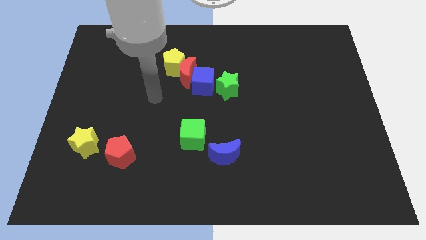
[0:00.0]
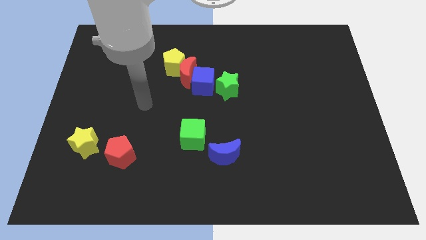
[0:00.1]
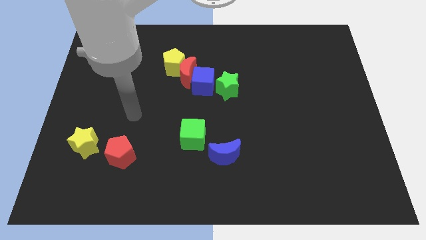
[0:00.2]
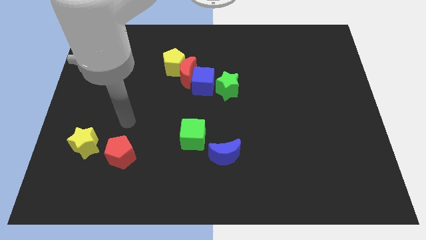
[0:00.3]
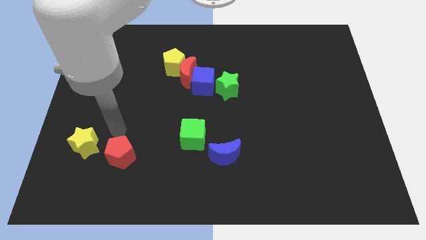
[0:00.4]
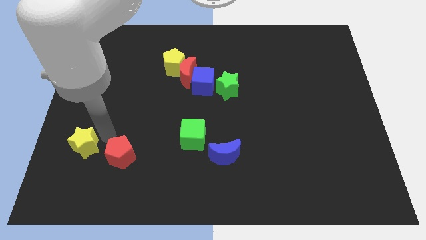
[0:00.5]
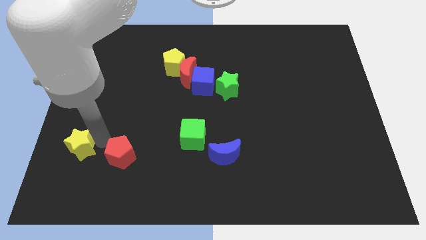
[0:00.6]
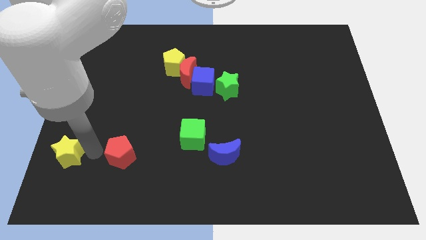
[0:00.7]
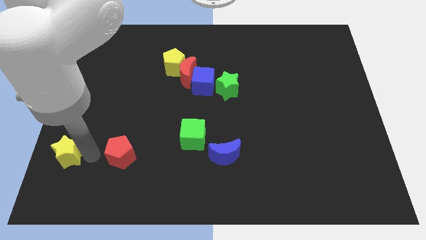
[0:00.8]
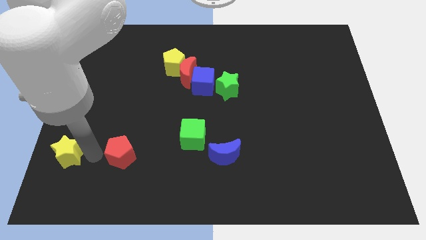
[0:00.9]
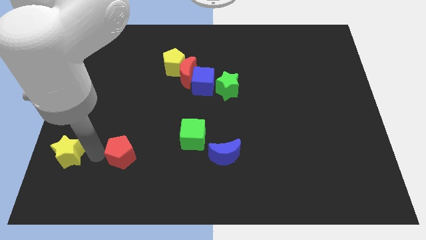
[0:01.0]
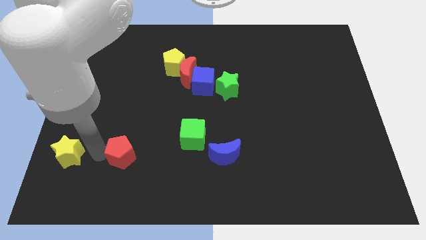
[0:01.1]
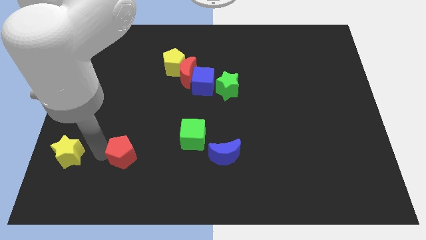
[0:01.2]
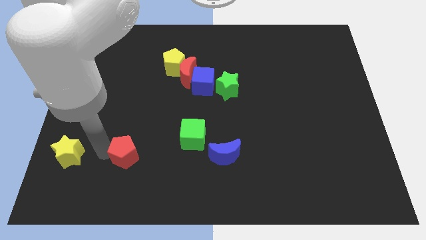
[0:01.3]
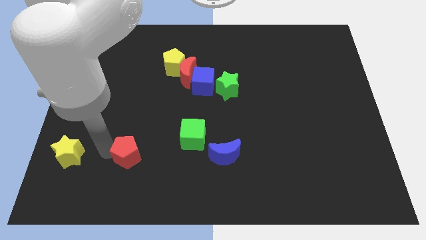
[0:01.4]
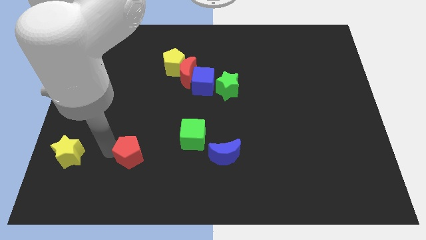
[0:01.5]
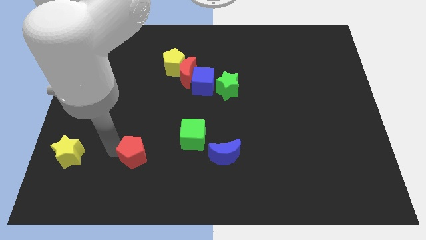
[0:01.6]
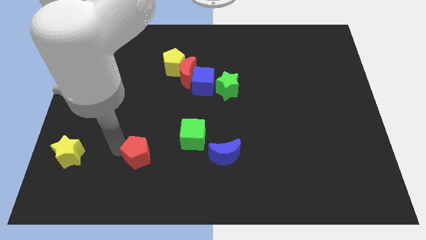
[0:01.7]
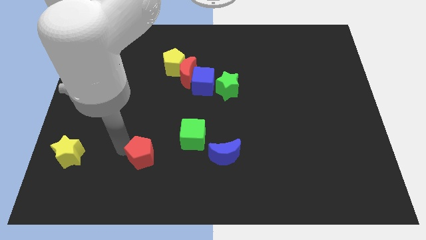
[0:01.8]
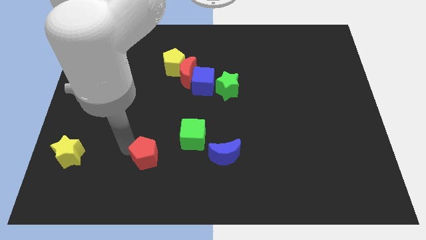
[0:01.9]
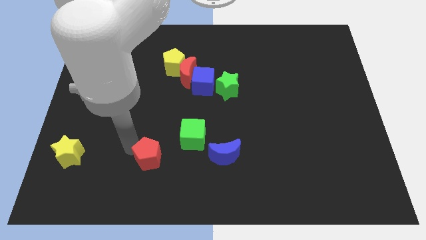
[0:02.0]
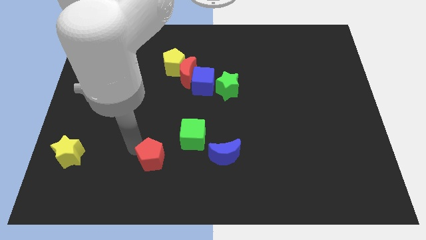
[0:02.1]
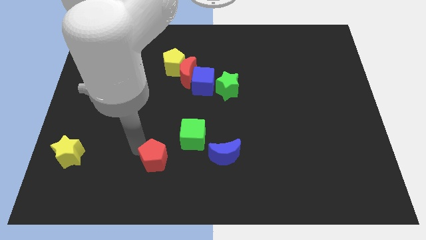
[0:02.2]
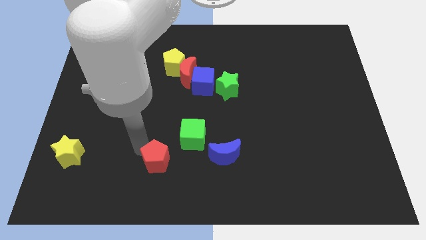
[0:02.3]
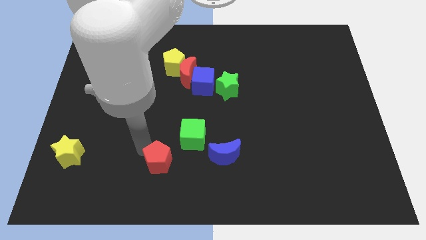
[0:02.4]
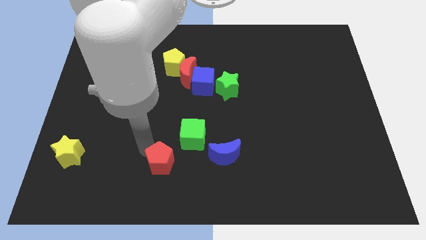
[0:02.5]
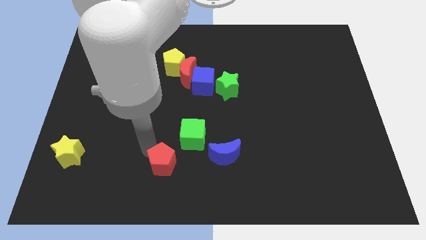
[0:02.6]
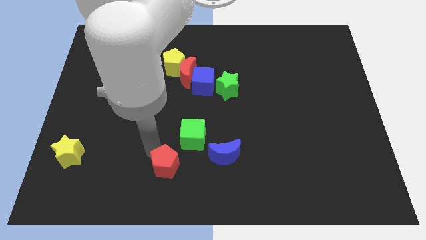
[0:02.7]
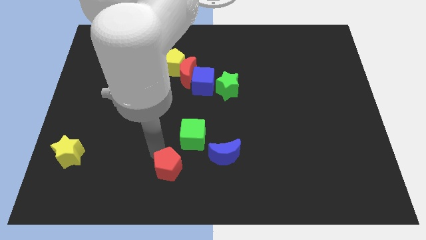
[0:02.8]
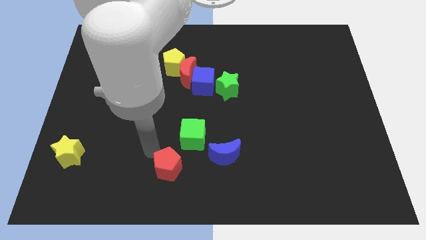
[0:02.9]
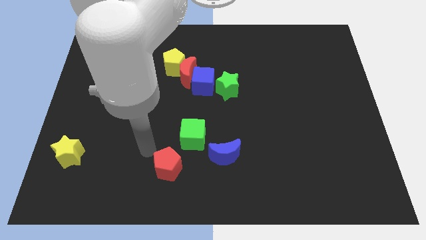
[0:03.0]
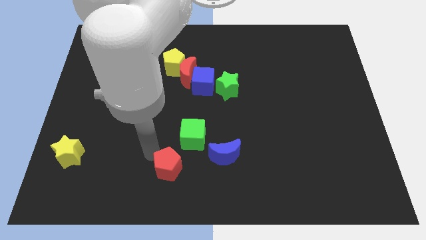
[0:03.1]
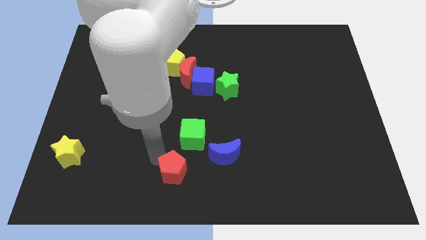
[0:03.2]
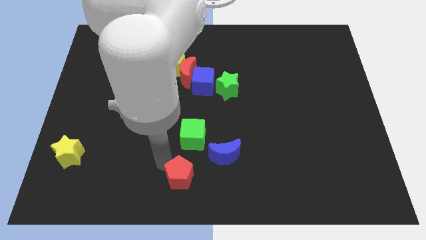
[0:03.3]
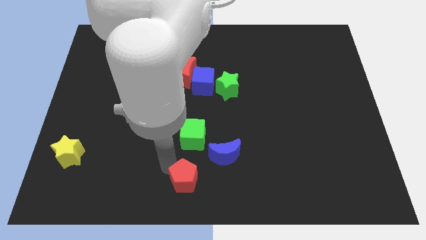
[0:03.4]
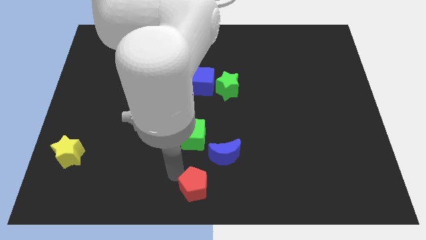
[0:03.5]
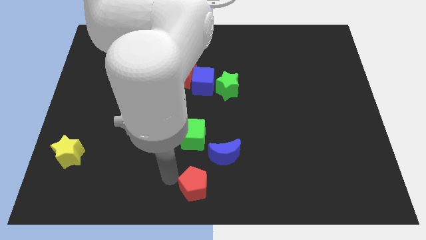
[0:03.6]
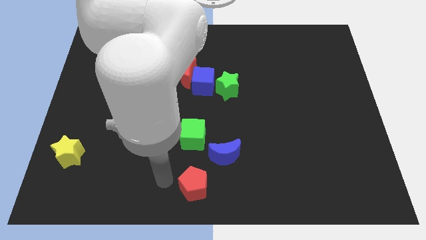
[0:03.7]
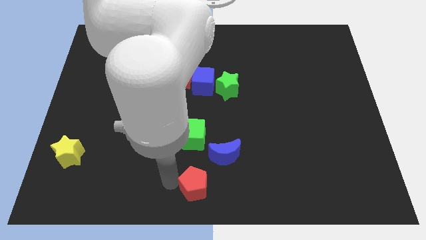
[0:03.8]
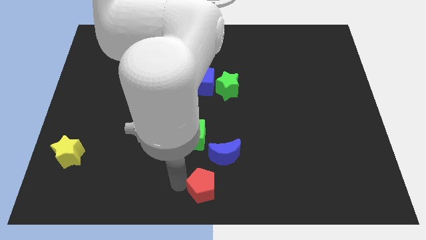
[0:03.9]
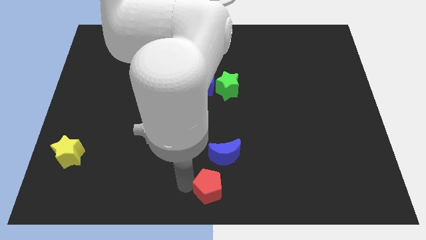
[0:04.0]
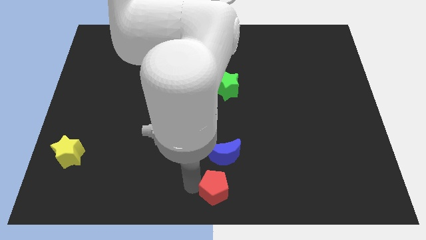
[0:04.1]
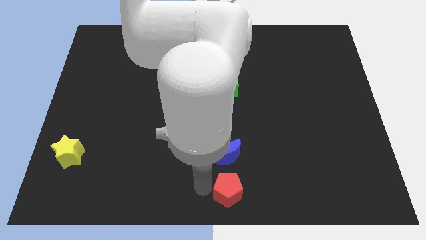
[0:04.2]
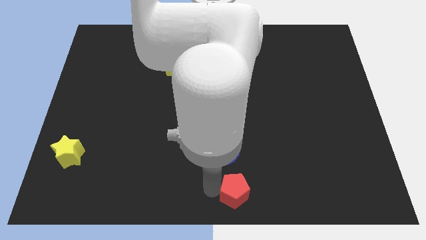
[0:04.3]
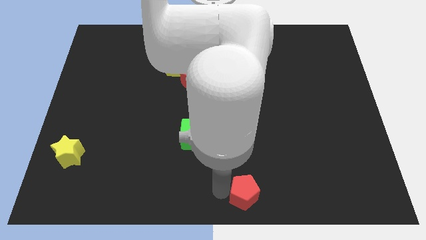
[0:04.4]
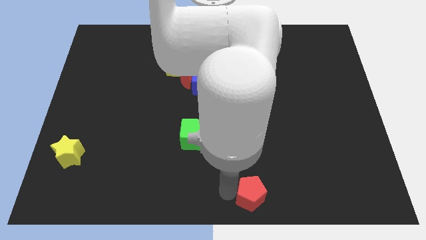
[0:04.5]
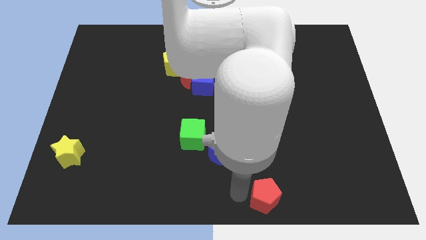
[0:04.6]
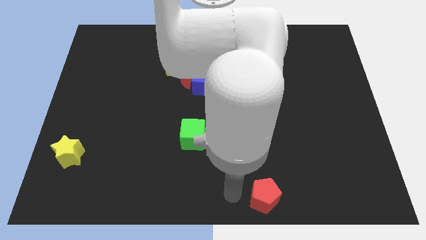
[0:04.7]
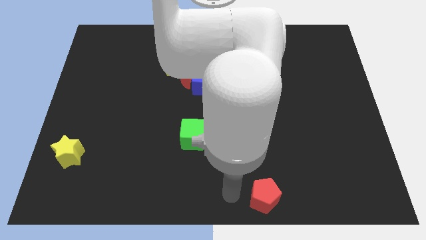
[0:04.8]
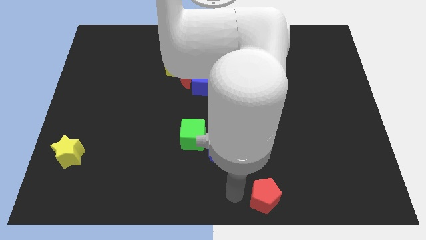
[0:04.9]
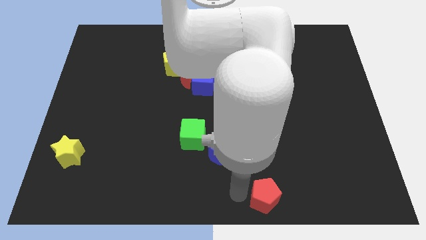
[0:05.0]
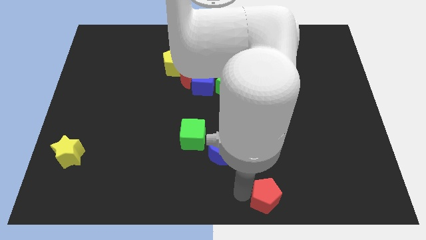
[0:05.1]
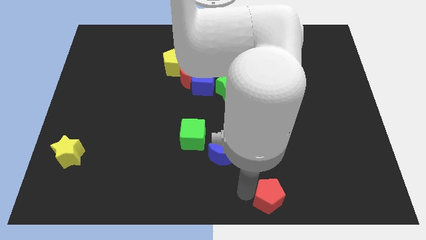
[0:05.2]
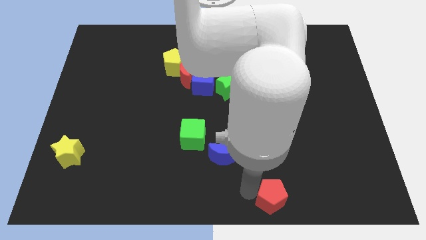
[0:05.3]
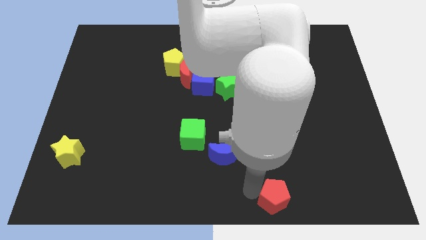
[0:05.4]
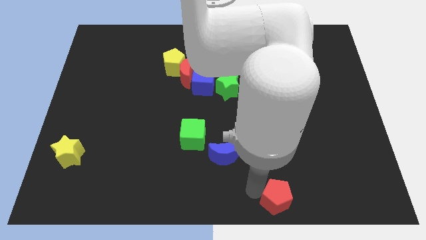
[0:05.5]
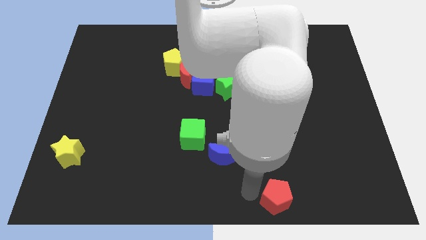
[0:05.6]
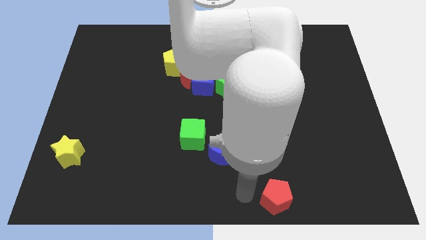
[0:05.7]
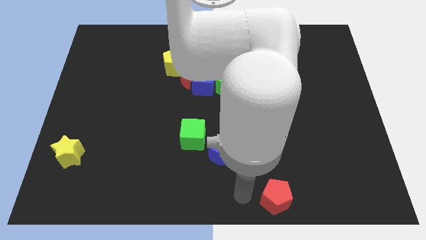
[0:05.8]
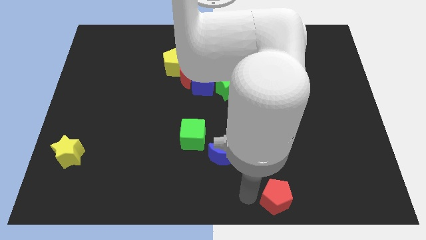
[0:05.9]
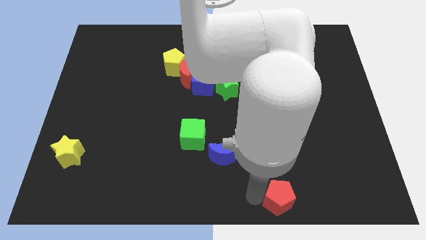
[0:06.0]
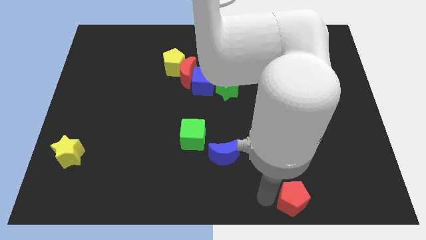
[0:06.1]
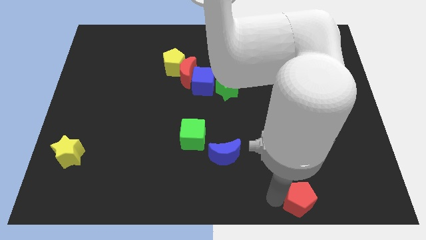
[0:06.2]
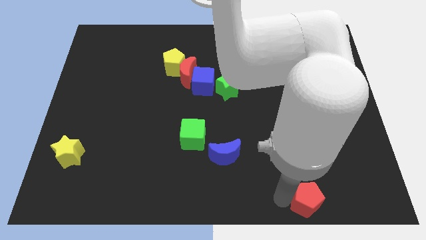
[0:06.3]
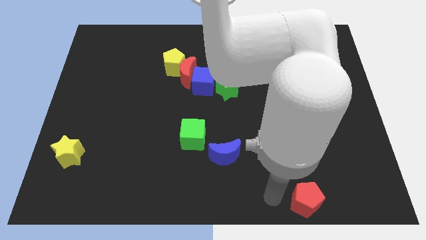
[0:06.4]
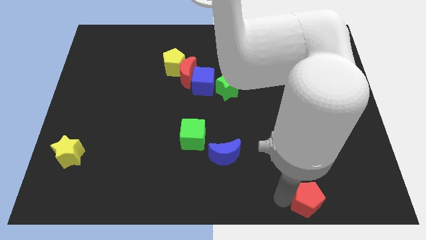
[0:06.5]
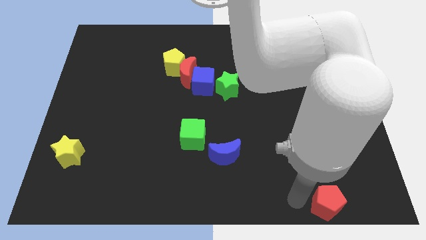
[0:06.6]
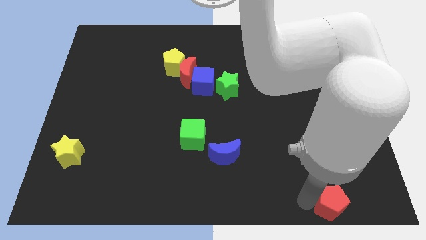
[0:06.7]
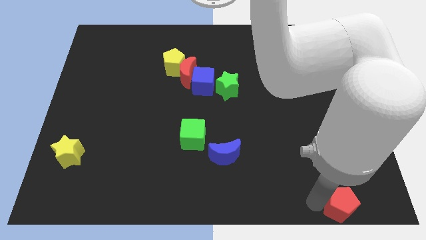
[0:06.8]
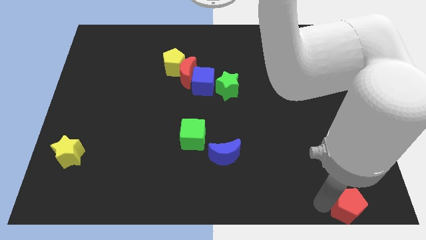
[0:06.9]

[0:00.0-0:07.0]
move the red pentagon to the lower right corner
